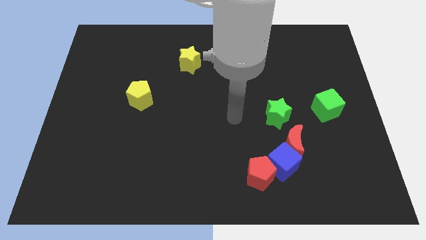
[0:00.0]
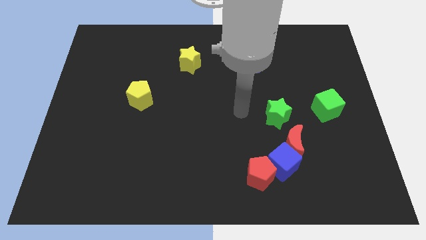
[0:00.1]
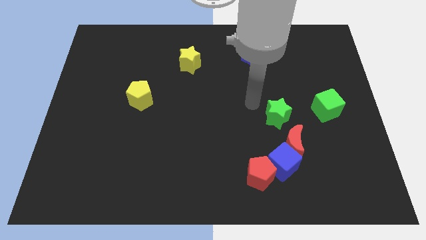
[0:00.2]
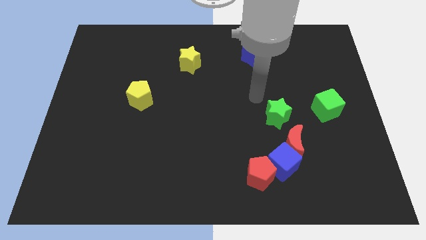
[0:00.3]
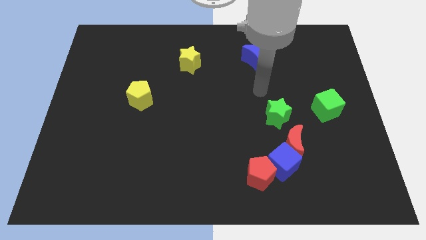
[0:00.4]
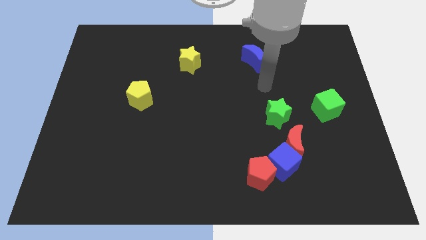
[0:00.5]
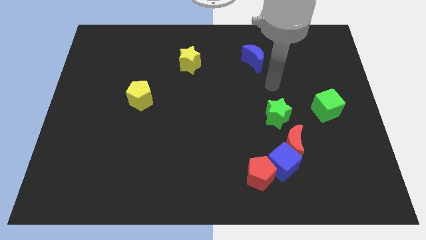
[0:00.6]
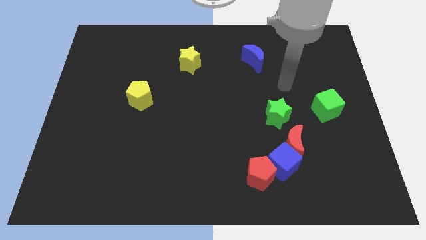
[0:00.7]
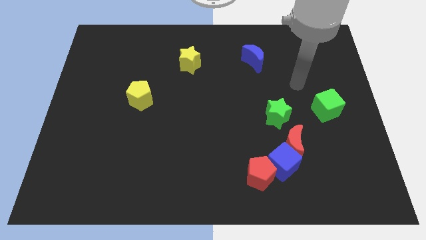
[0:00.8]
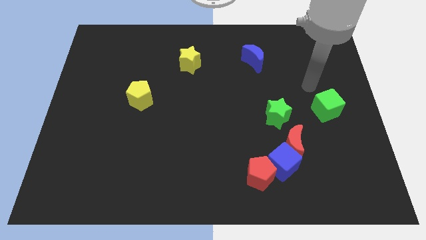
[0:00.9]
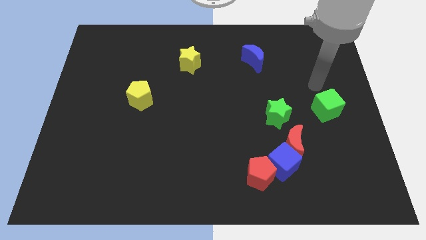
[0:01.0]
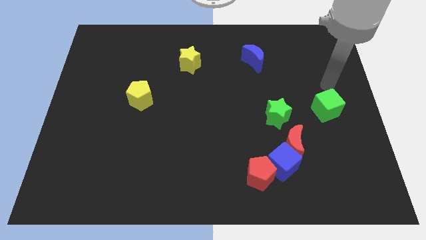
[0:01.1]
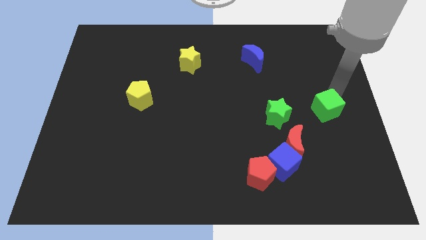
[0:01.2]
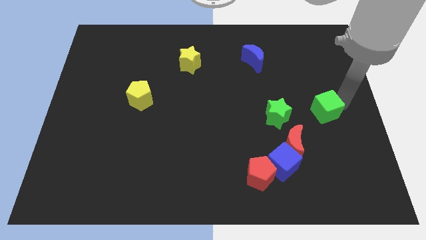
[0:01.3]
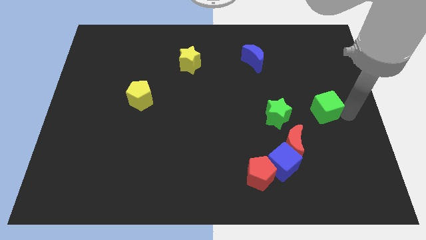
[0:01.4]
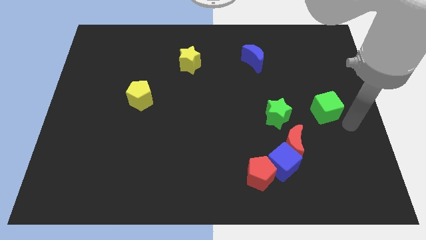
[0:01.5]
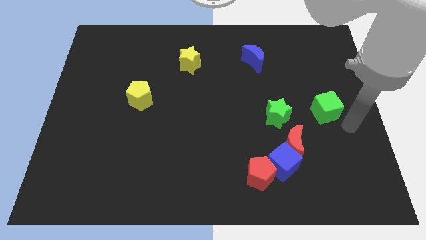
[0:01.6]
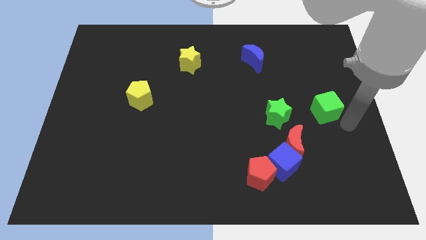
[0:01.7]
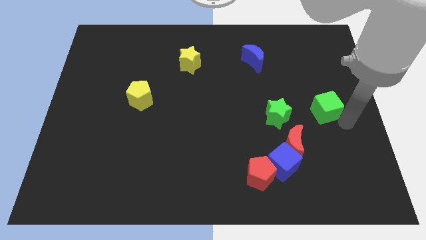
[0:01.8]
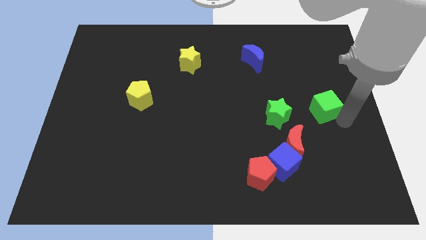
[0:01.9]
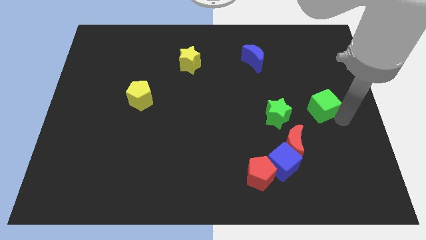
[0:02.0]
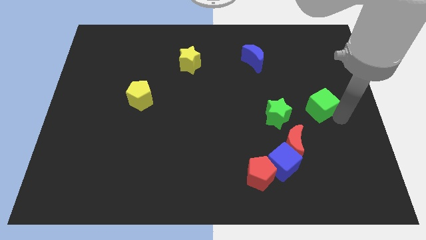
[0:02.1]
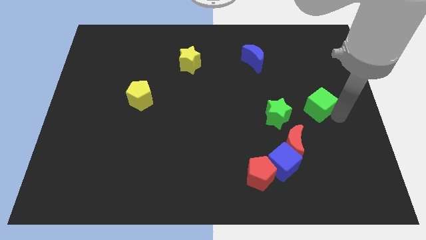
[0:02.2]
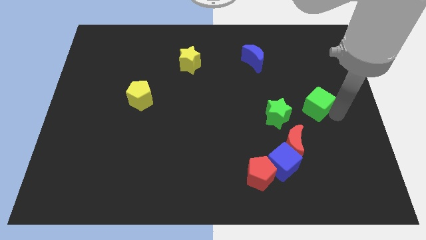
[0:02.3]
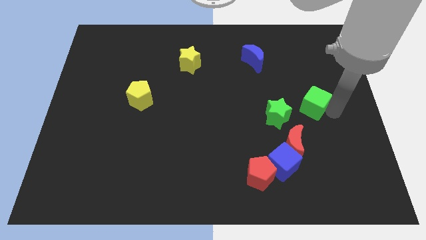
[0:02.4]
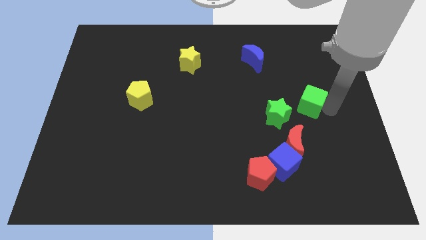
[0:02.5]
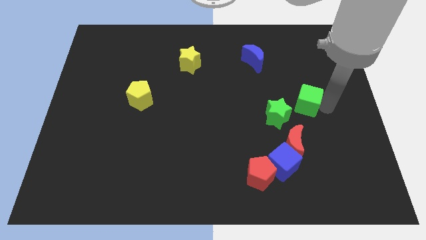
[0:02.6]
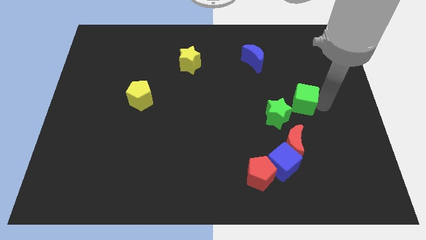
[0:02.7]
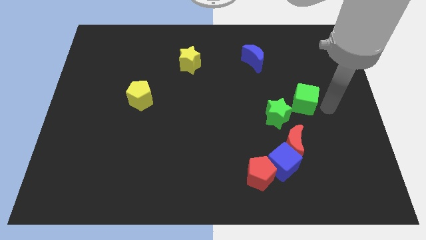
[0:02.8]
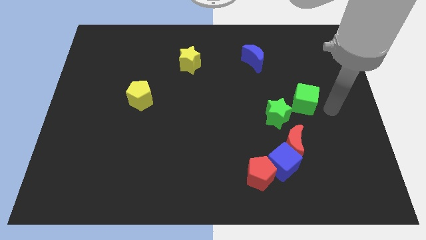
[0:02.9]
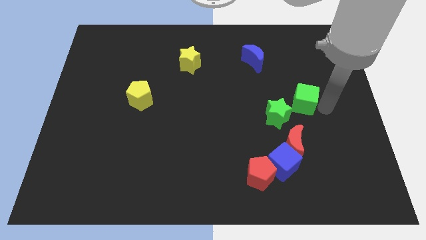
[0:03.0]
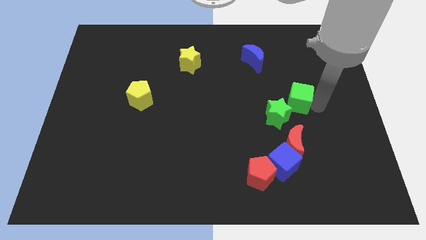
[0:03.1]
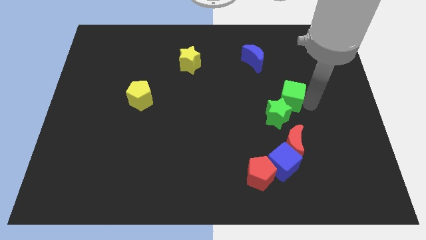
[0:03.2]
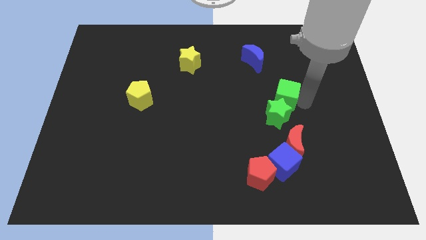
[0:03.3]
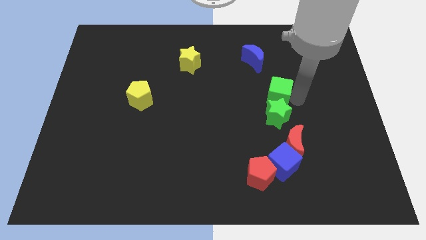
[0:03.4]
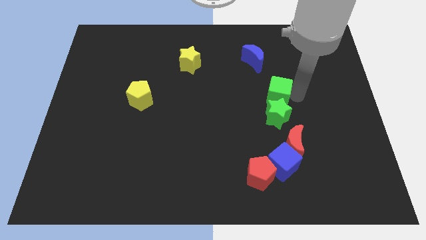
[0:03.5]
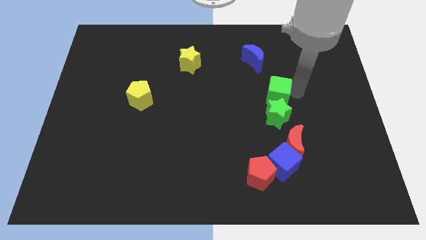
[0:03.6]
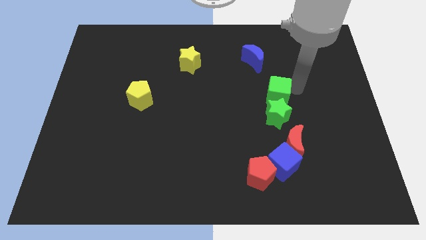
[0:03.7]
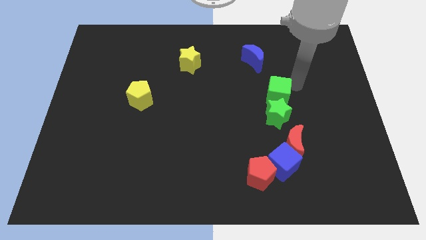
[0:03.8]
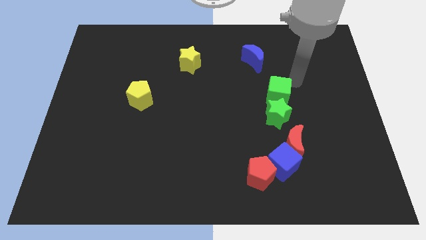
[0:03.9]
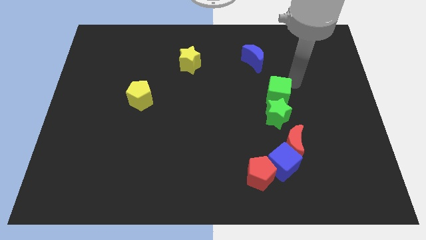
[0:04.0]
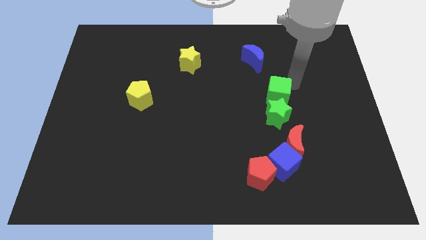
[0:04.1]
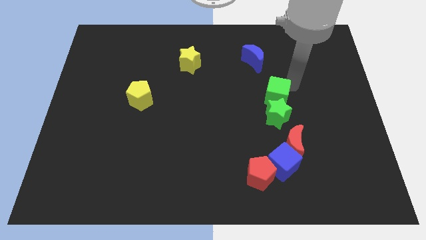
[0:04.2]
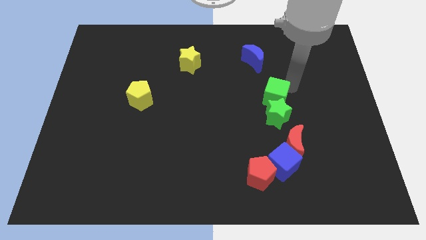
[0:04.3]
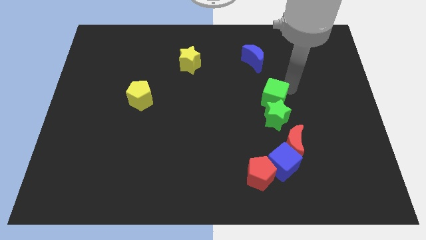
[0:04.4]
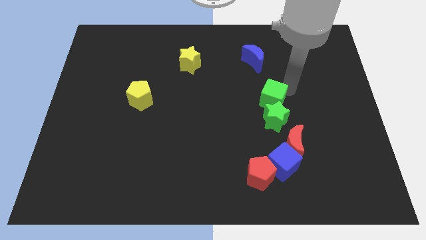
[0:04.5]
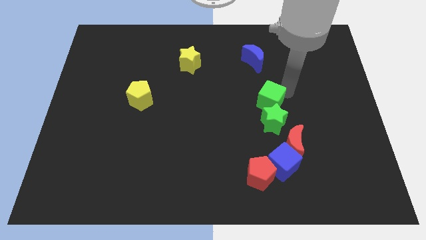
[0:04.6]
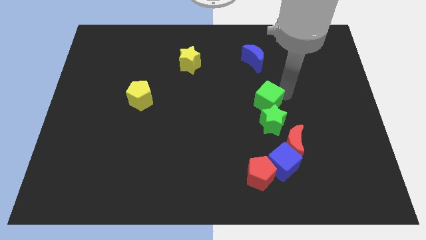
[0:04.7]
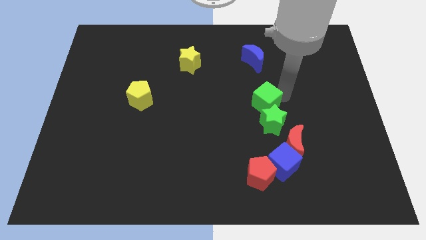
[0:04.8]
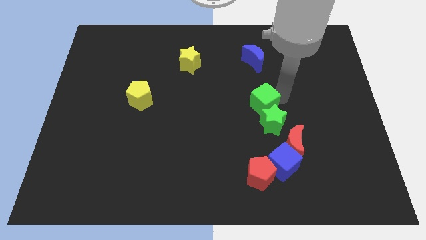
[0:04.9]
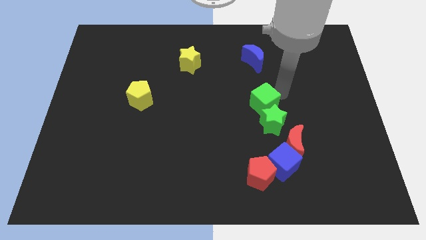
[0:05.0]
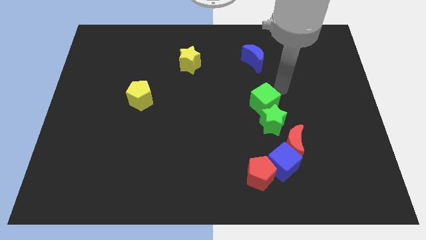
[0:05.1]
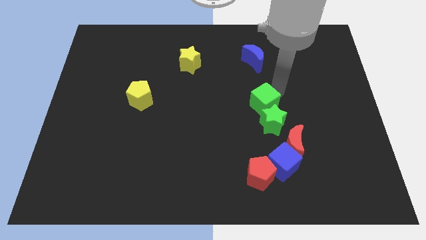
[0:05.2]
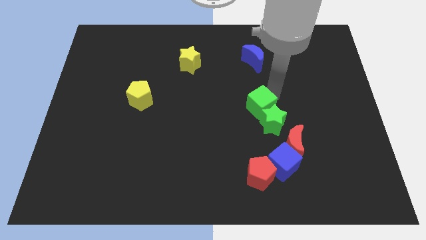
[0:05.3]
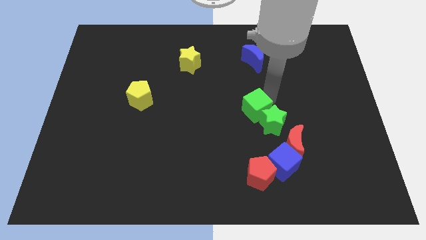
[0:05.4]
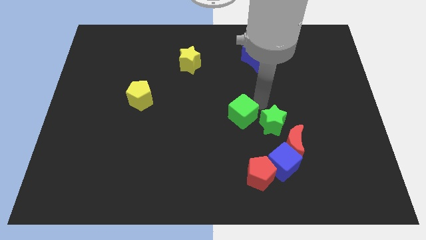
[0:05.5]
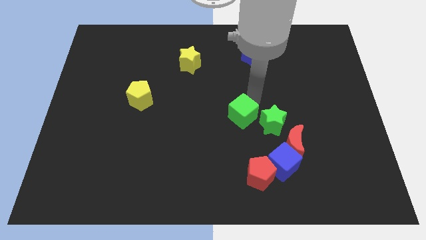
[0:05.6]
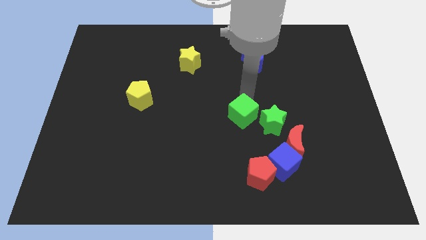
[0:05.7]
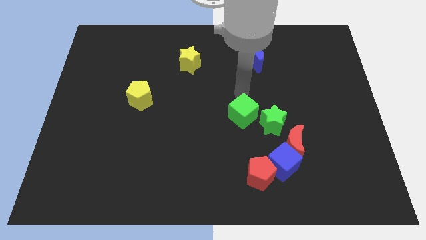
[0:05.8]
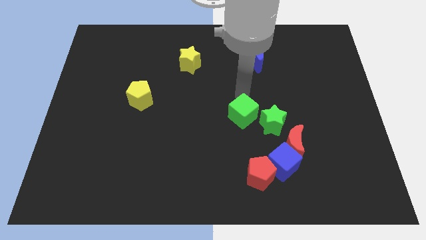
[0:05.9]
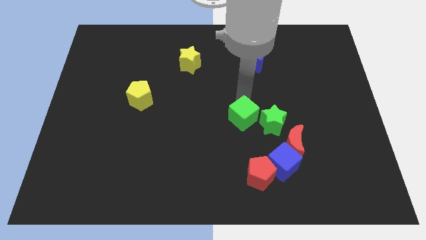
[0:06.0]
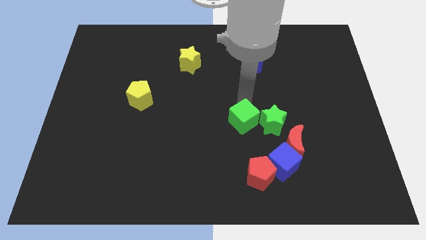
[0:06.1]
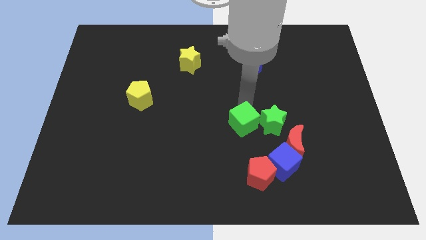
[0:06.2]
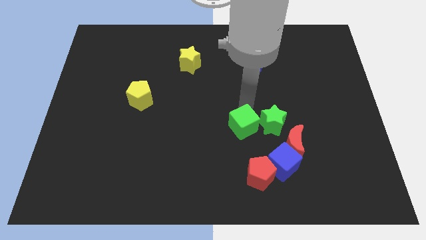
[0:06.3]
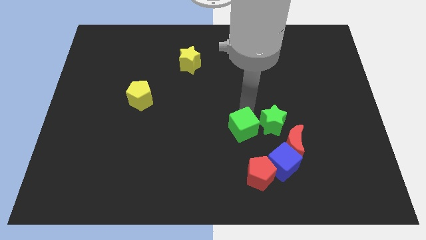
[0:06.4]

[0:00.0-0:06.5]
put the green cube left of the red moon

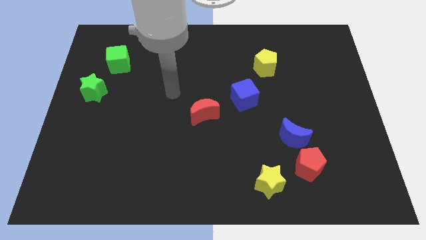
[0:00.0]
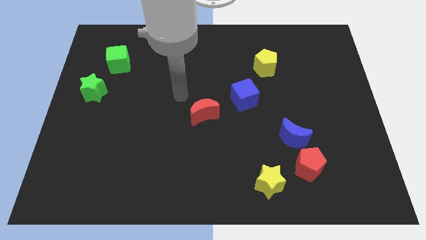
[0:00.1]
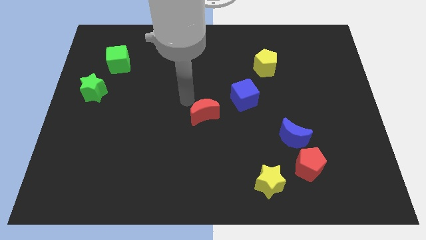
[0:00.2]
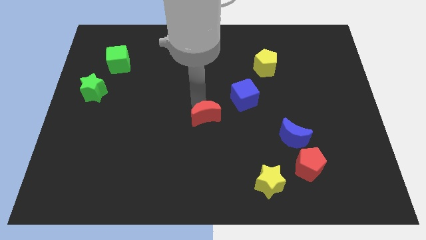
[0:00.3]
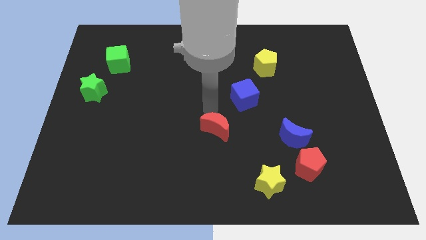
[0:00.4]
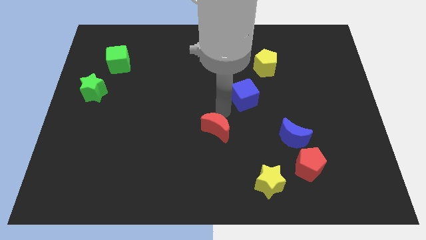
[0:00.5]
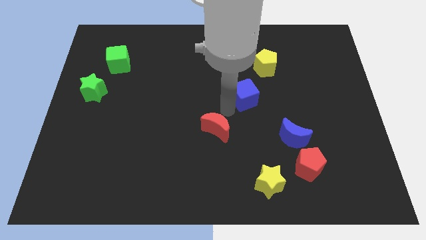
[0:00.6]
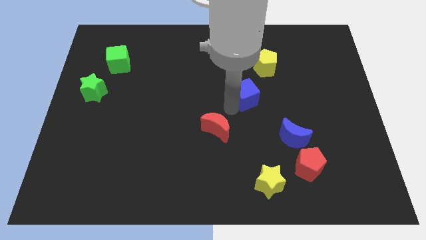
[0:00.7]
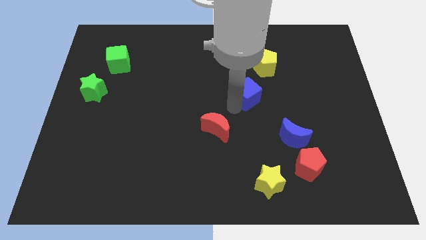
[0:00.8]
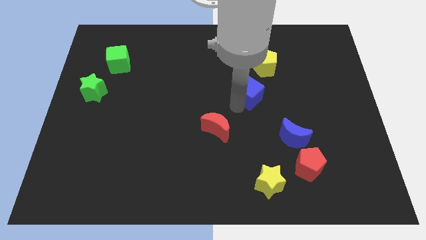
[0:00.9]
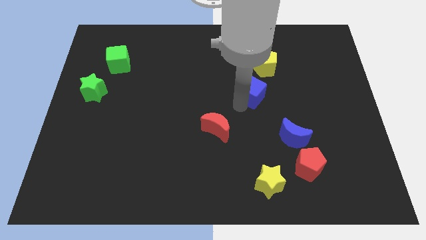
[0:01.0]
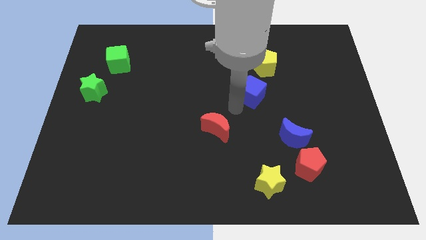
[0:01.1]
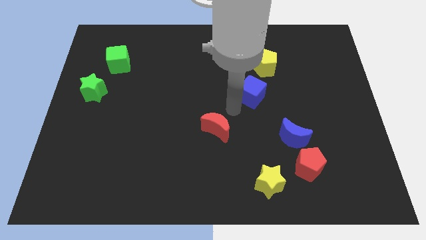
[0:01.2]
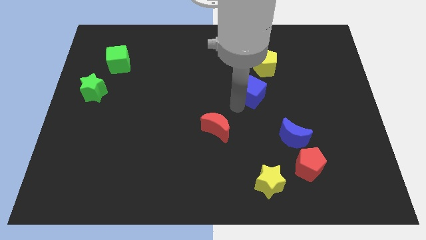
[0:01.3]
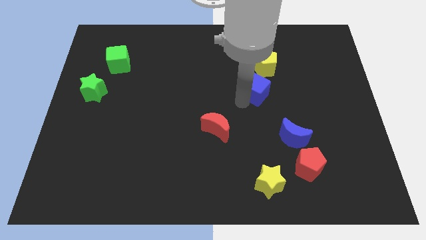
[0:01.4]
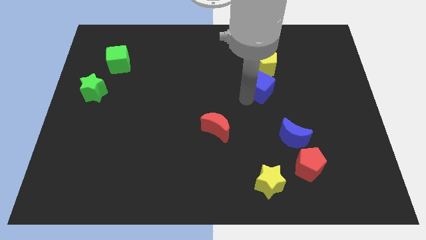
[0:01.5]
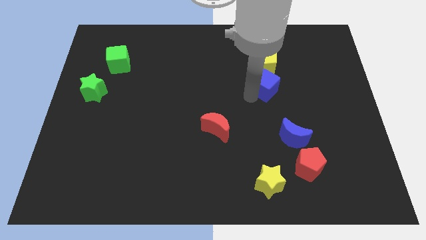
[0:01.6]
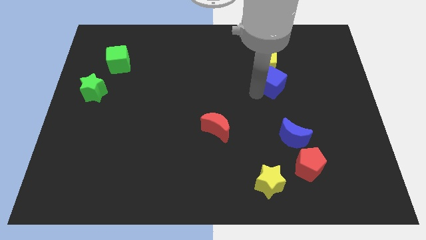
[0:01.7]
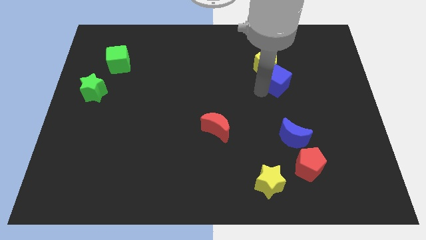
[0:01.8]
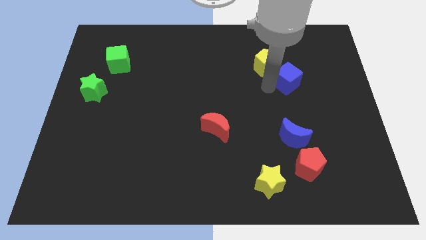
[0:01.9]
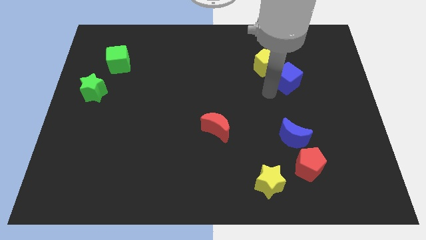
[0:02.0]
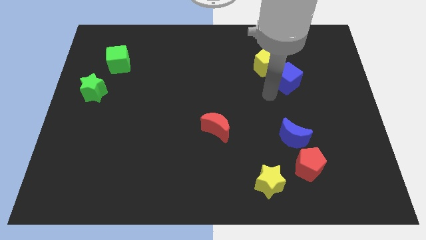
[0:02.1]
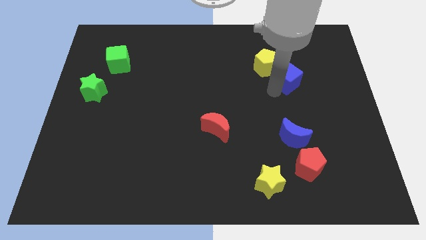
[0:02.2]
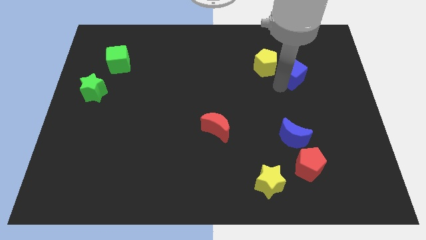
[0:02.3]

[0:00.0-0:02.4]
move the blue cube to the right of the yellow pentagon
